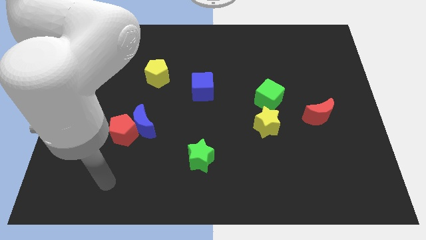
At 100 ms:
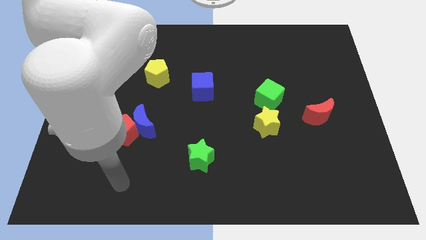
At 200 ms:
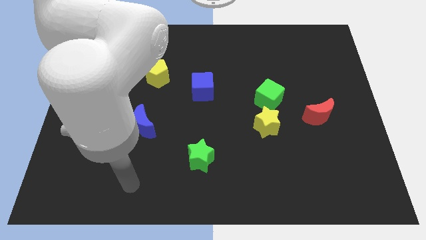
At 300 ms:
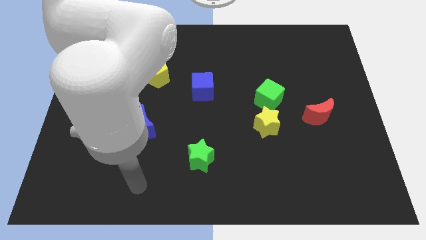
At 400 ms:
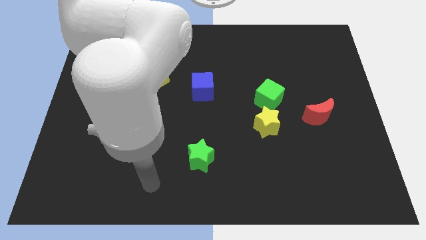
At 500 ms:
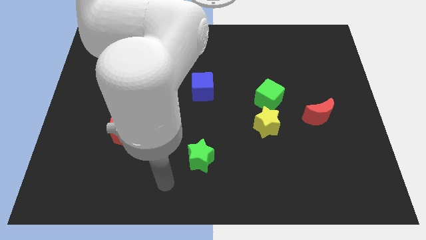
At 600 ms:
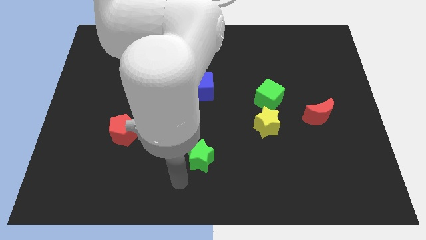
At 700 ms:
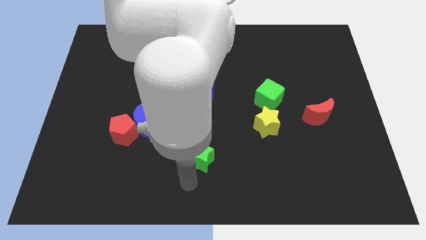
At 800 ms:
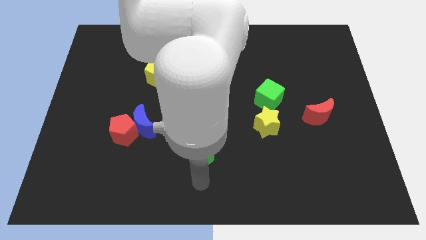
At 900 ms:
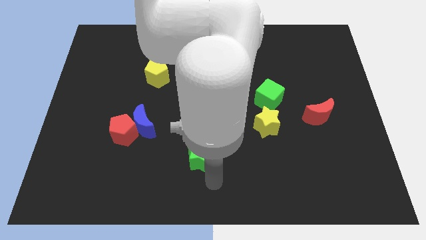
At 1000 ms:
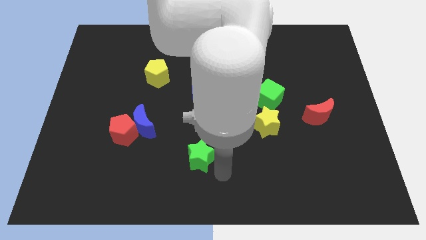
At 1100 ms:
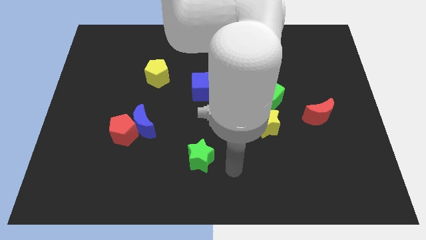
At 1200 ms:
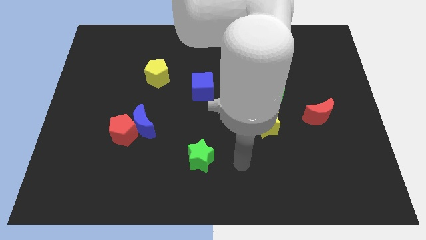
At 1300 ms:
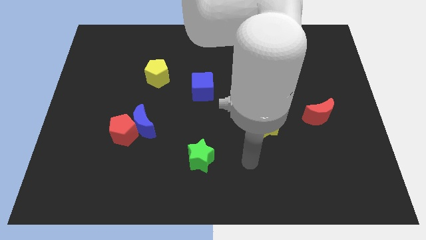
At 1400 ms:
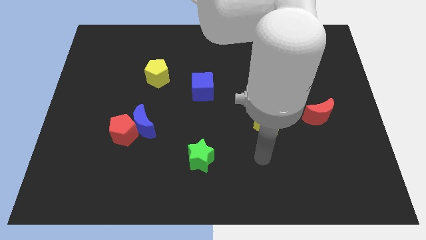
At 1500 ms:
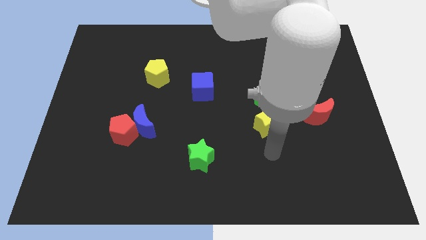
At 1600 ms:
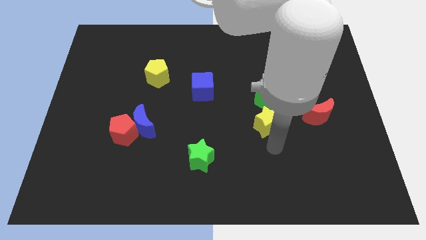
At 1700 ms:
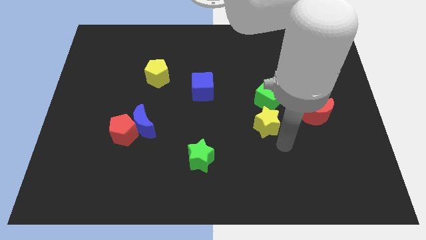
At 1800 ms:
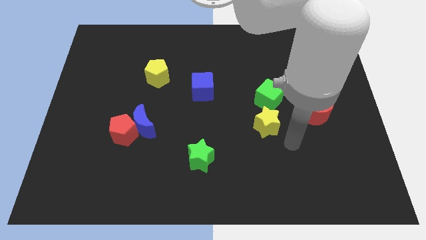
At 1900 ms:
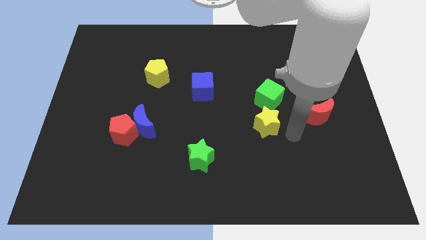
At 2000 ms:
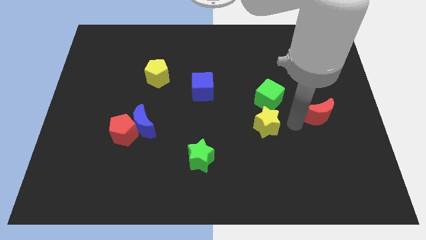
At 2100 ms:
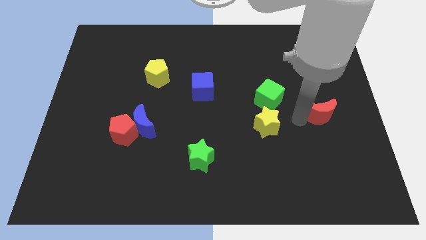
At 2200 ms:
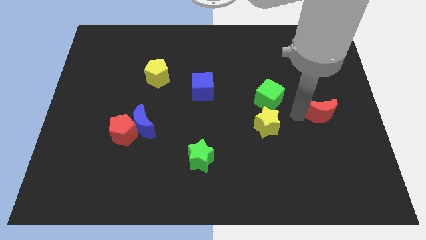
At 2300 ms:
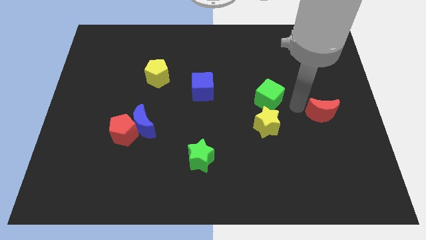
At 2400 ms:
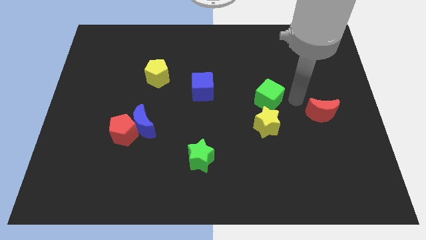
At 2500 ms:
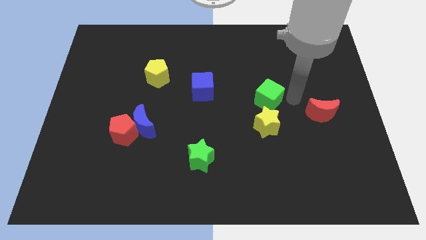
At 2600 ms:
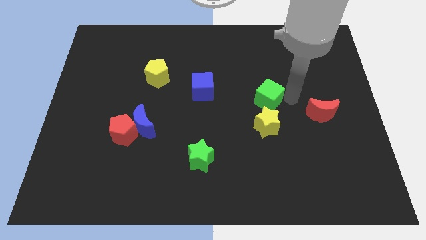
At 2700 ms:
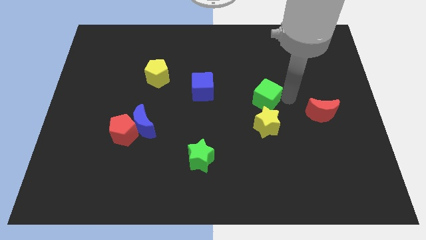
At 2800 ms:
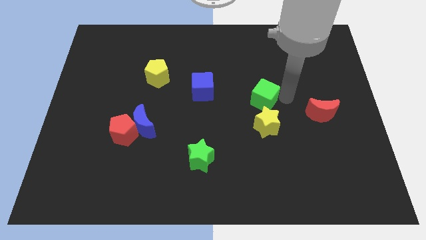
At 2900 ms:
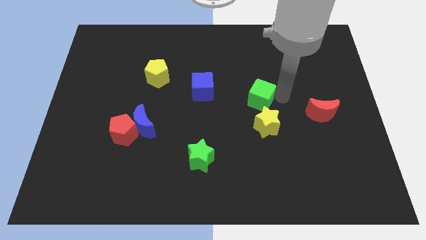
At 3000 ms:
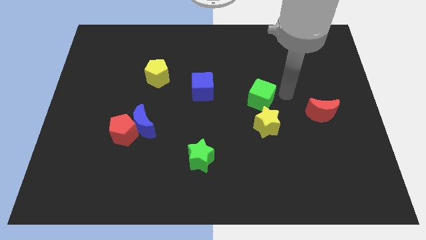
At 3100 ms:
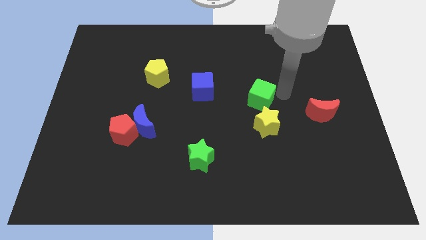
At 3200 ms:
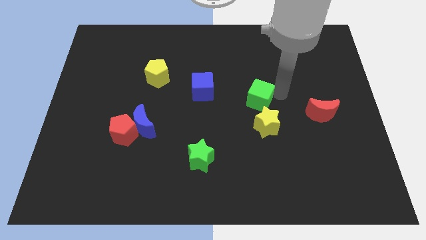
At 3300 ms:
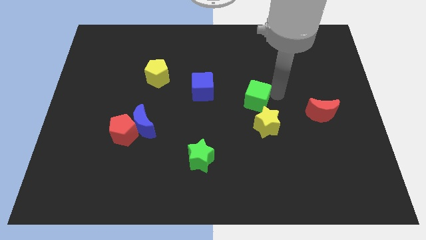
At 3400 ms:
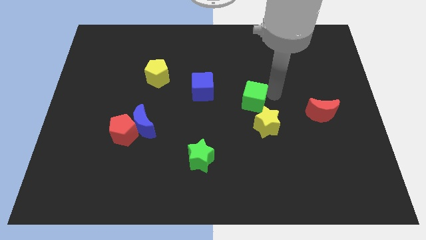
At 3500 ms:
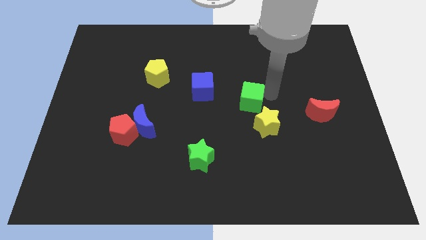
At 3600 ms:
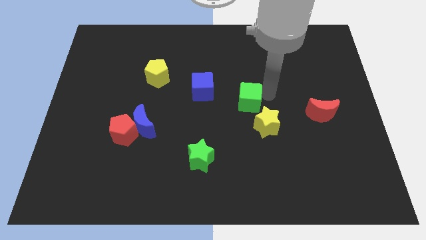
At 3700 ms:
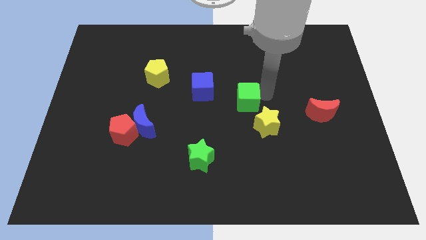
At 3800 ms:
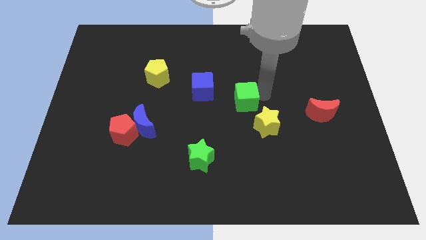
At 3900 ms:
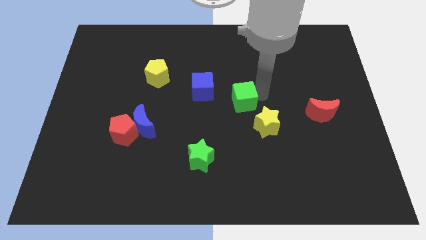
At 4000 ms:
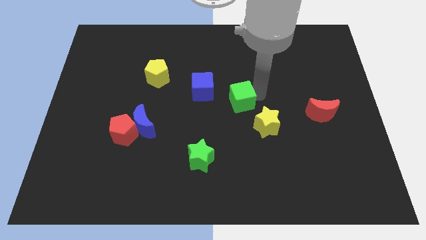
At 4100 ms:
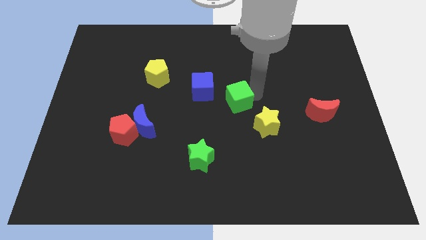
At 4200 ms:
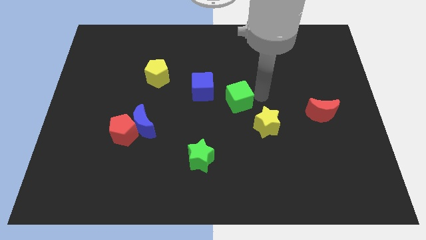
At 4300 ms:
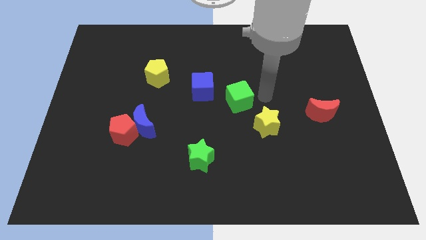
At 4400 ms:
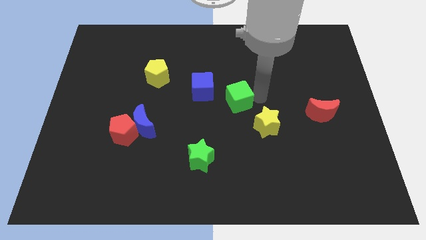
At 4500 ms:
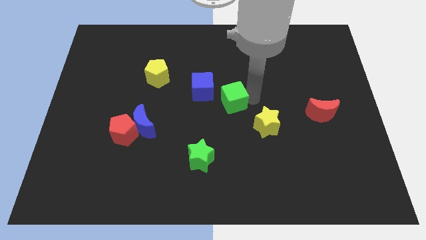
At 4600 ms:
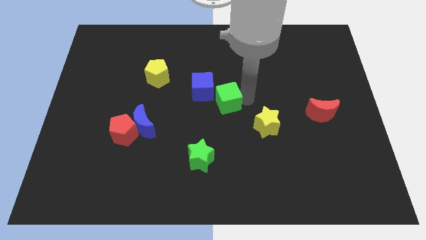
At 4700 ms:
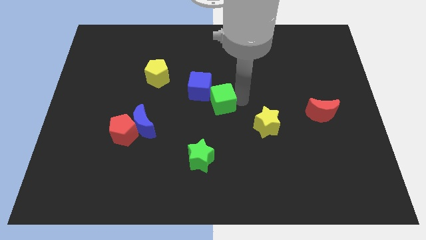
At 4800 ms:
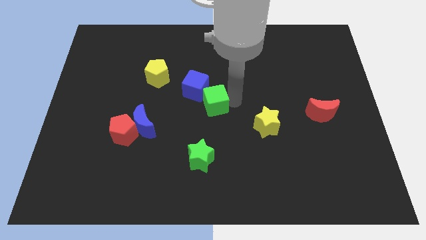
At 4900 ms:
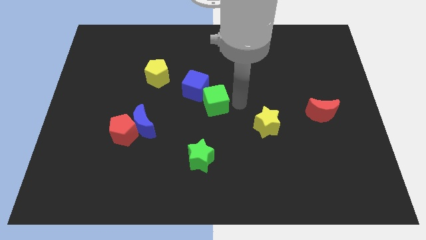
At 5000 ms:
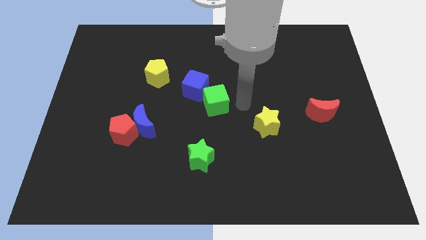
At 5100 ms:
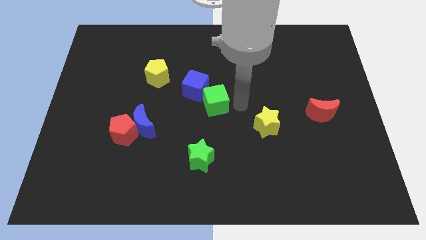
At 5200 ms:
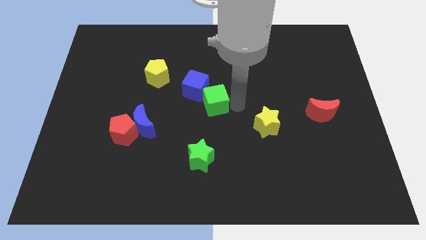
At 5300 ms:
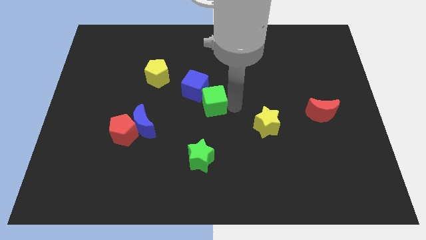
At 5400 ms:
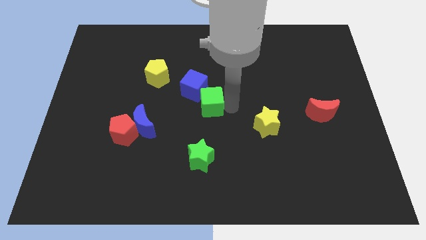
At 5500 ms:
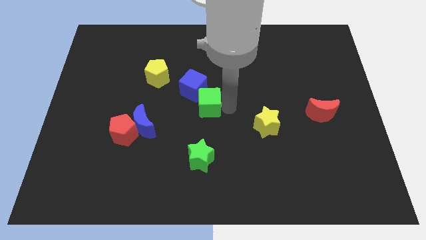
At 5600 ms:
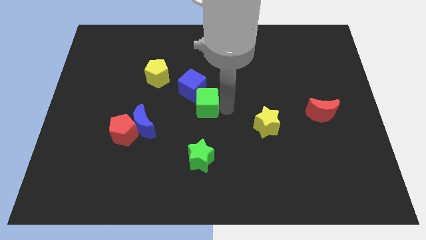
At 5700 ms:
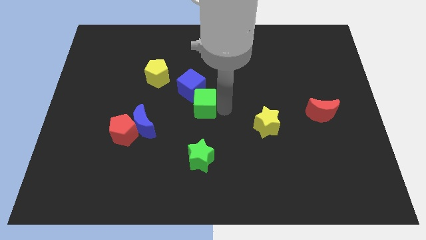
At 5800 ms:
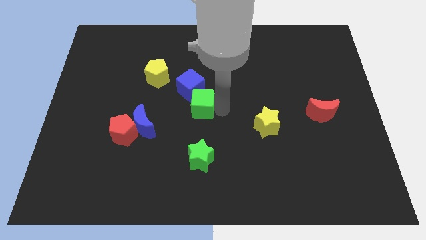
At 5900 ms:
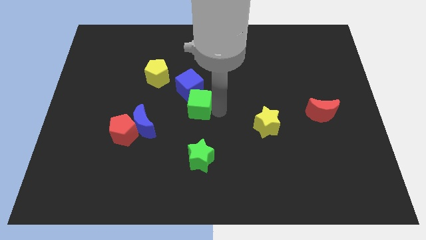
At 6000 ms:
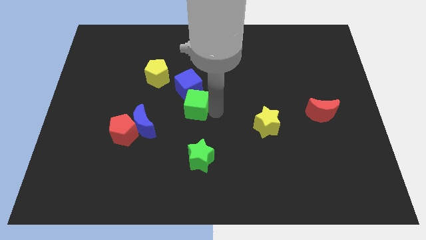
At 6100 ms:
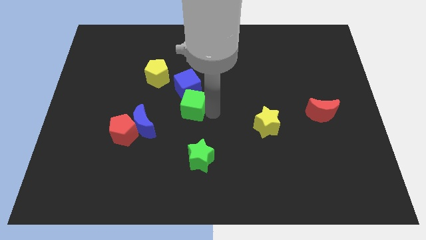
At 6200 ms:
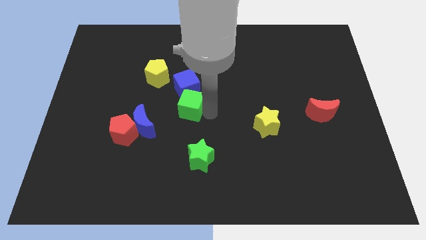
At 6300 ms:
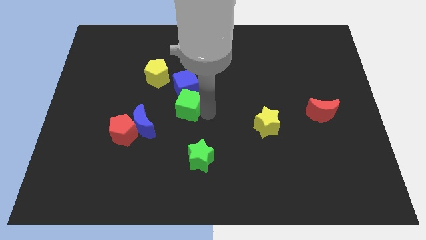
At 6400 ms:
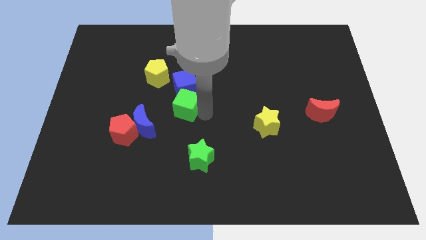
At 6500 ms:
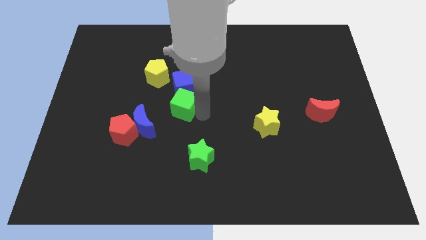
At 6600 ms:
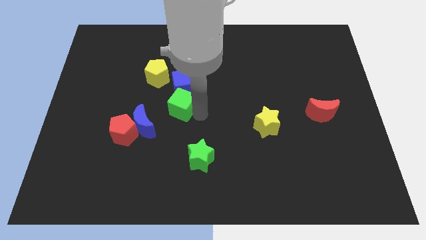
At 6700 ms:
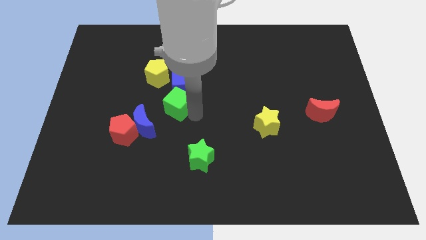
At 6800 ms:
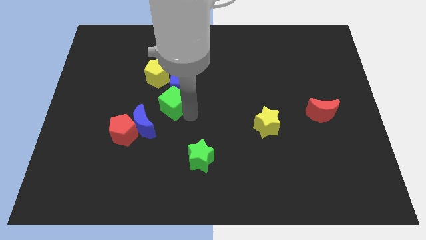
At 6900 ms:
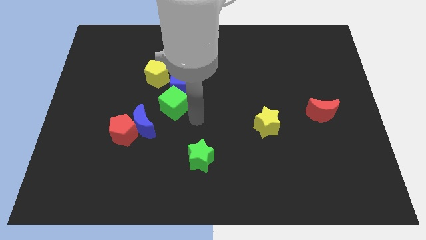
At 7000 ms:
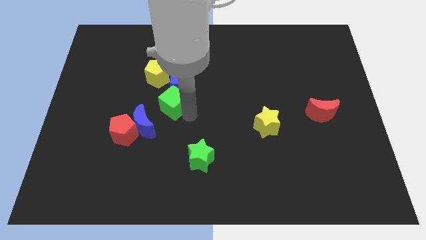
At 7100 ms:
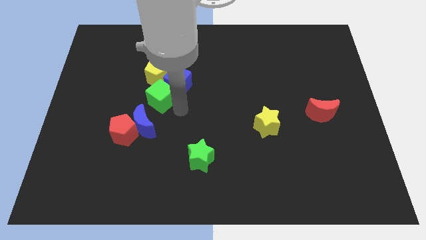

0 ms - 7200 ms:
slide the green cube to the left side of the blue cube

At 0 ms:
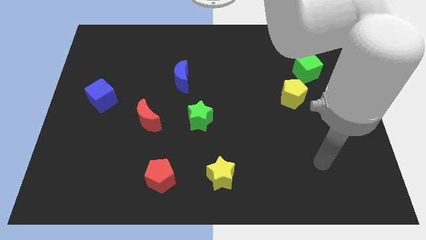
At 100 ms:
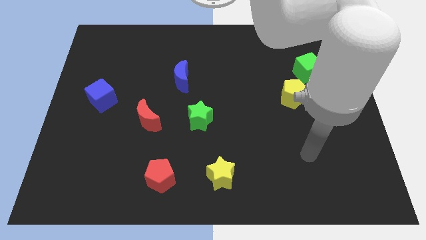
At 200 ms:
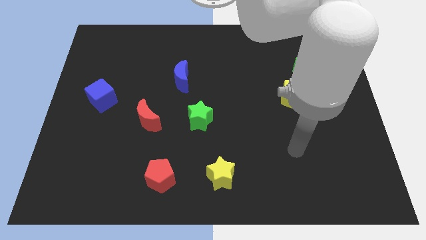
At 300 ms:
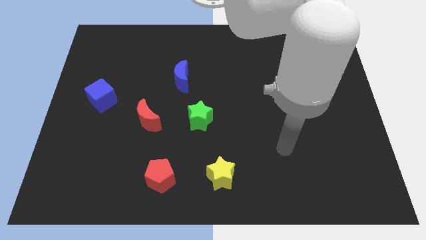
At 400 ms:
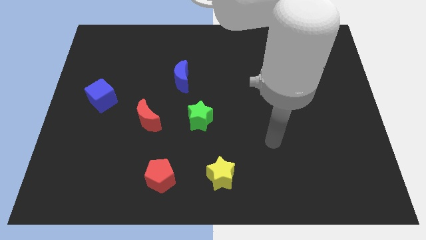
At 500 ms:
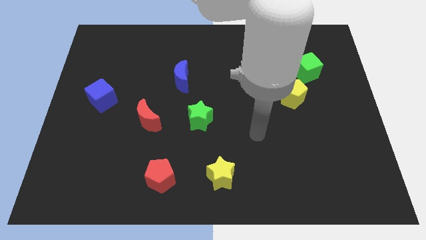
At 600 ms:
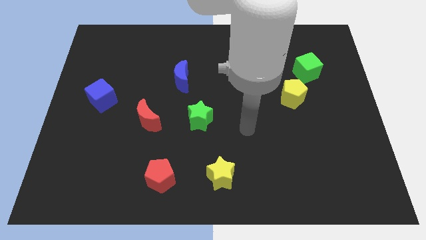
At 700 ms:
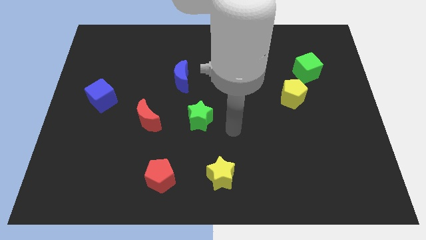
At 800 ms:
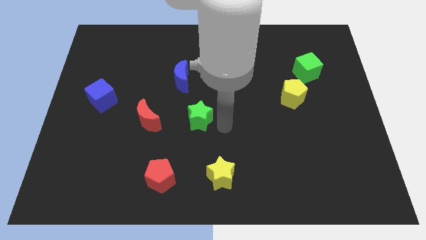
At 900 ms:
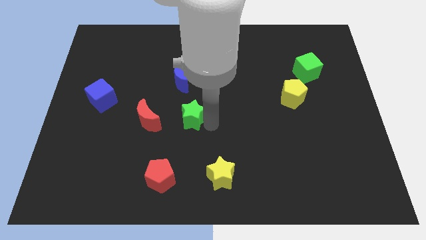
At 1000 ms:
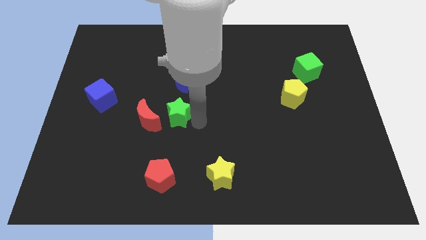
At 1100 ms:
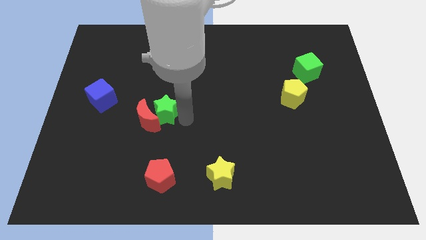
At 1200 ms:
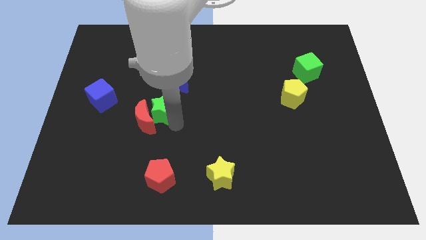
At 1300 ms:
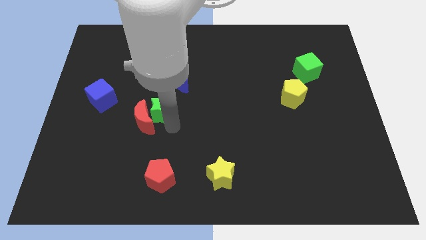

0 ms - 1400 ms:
move the red moon diagonally down and to the right of the blue cube
